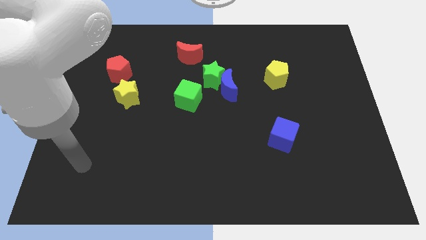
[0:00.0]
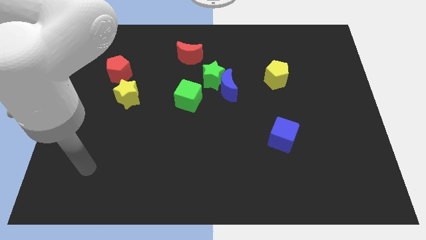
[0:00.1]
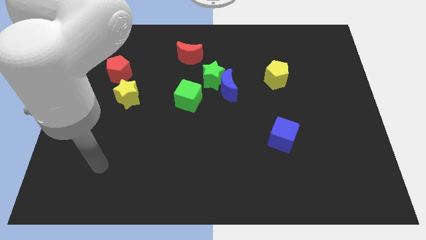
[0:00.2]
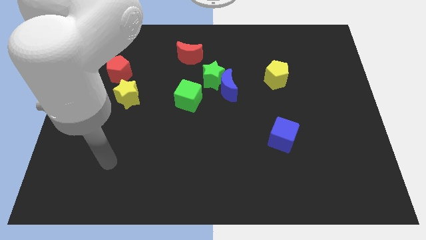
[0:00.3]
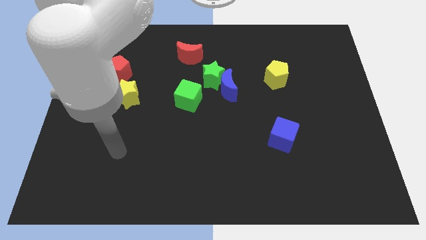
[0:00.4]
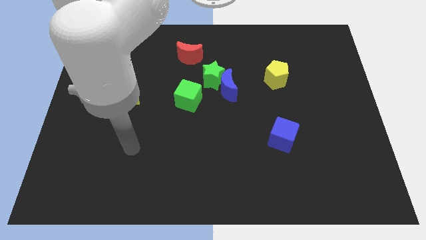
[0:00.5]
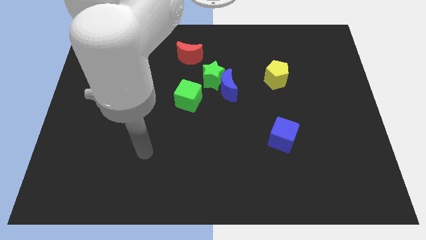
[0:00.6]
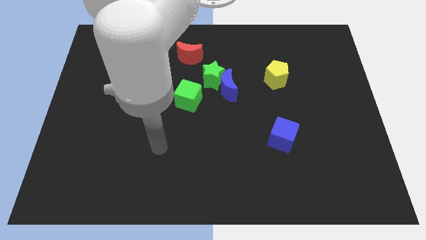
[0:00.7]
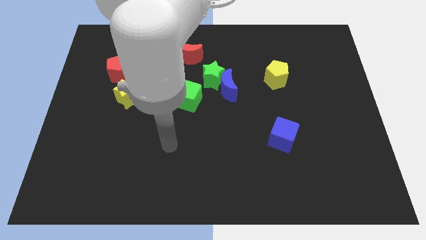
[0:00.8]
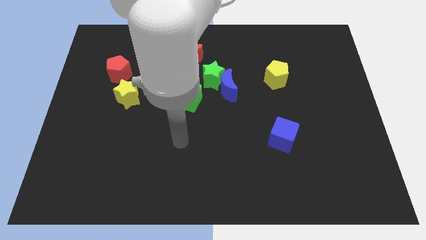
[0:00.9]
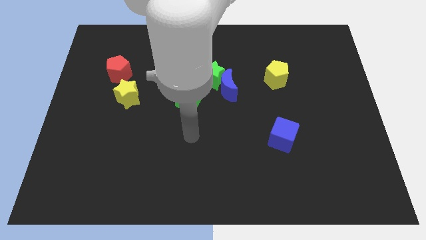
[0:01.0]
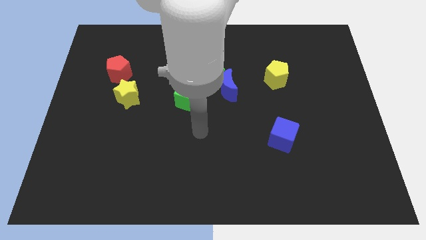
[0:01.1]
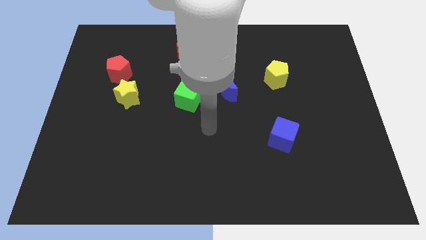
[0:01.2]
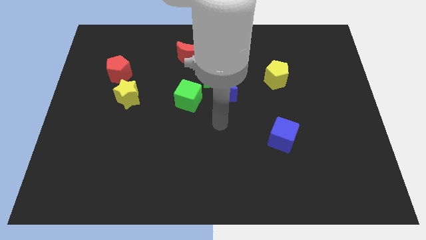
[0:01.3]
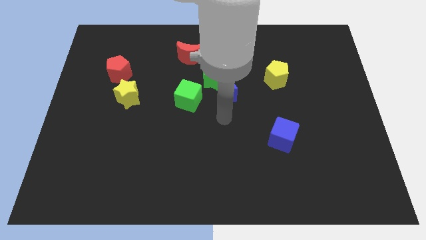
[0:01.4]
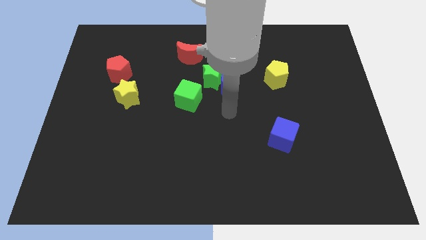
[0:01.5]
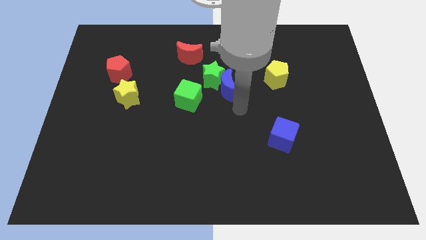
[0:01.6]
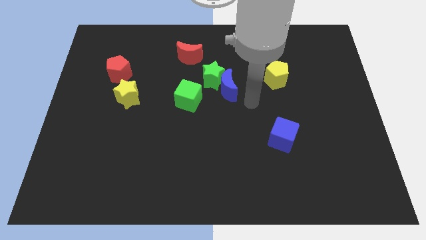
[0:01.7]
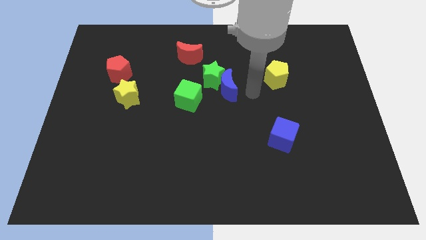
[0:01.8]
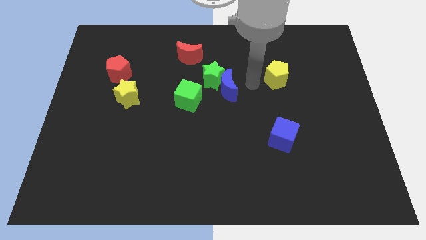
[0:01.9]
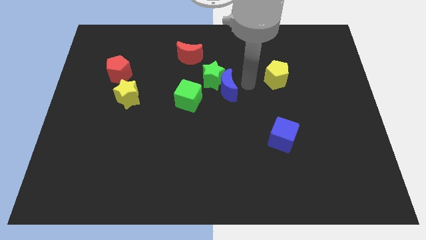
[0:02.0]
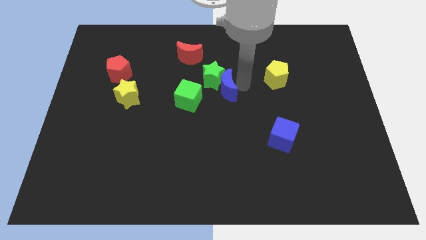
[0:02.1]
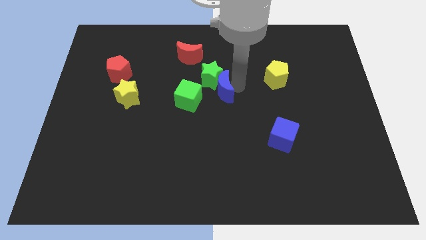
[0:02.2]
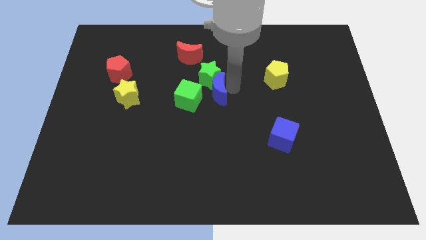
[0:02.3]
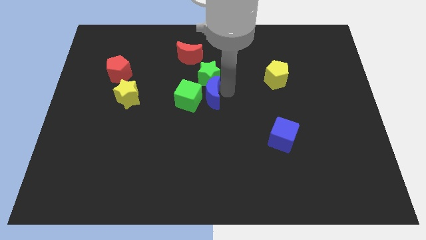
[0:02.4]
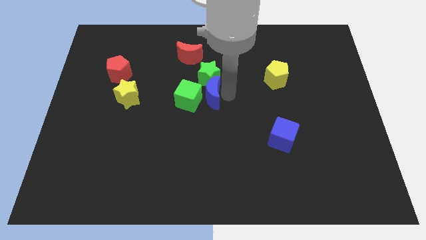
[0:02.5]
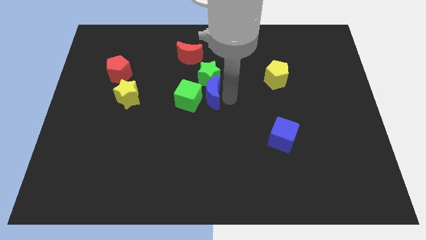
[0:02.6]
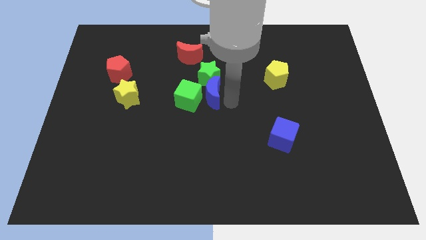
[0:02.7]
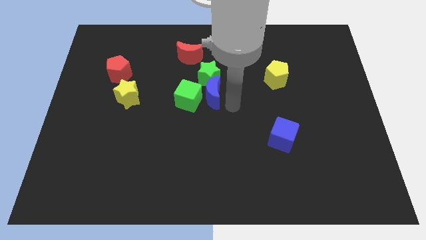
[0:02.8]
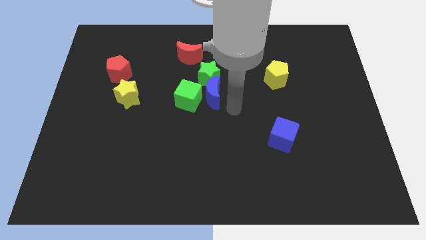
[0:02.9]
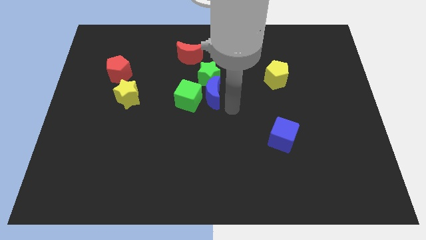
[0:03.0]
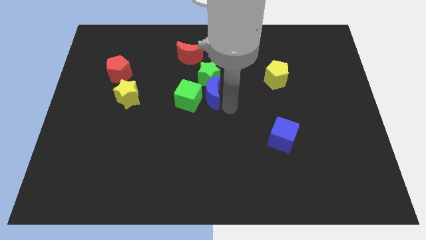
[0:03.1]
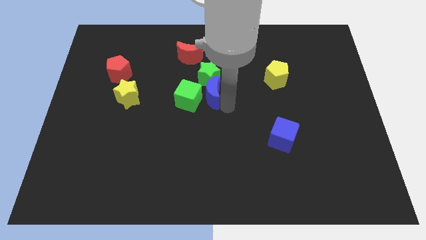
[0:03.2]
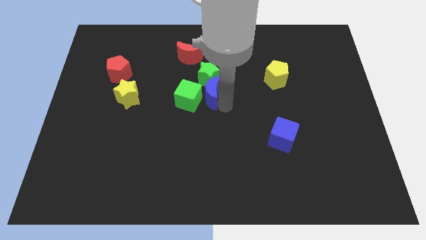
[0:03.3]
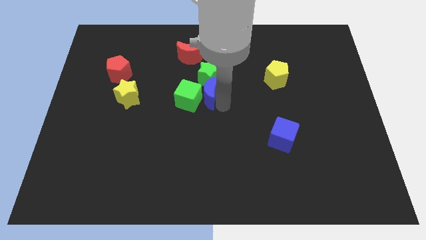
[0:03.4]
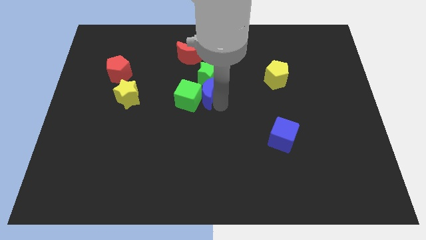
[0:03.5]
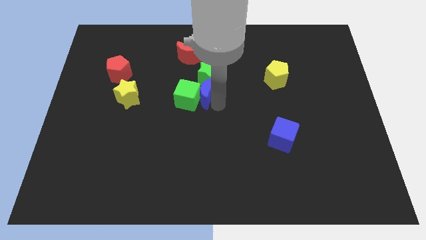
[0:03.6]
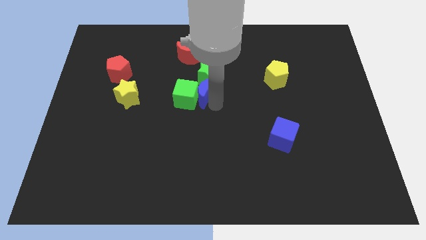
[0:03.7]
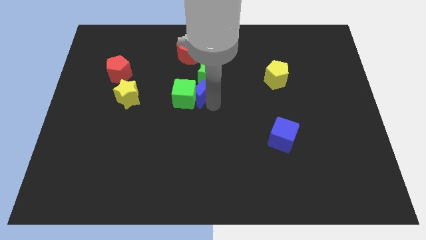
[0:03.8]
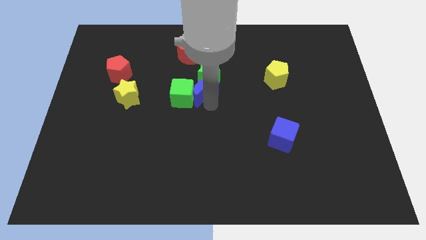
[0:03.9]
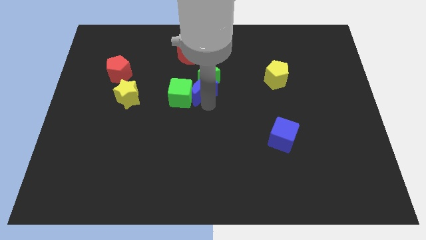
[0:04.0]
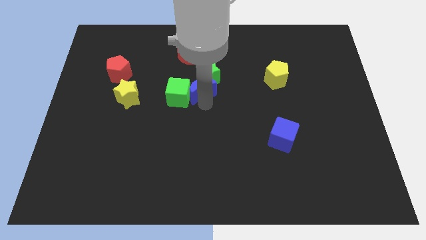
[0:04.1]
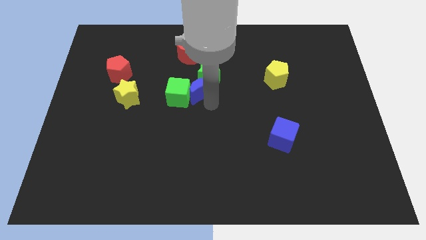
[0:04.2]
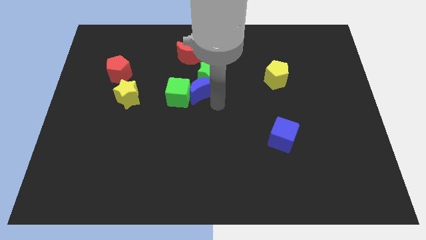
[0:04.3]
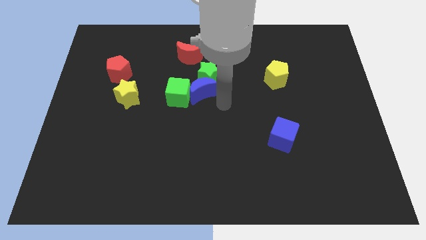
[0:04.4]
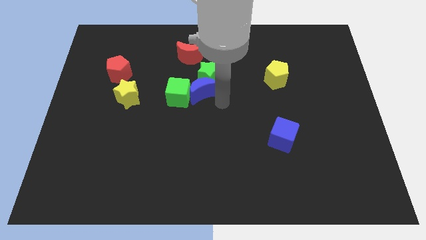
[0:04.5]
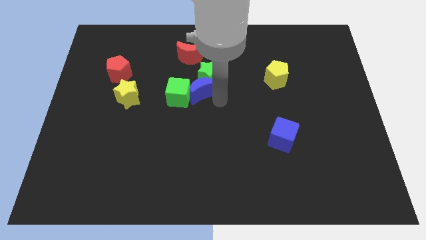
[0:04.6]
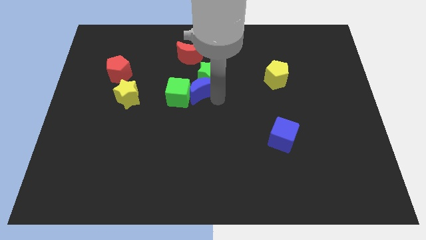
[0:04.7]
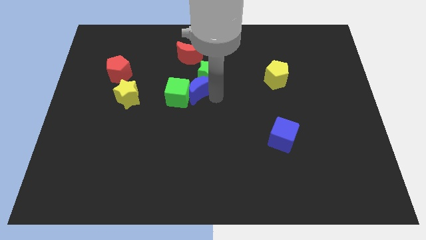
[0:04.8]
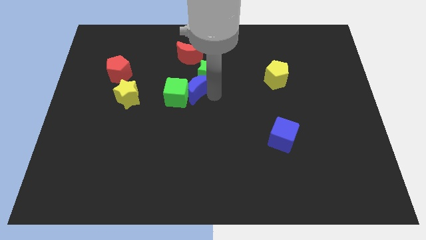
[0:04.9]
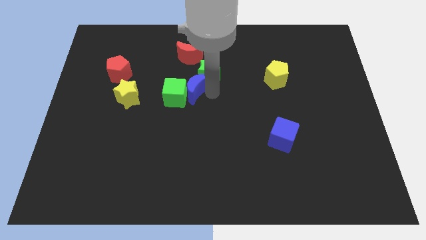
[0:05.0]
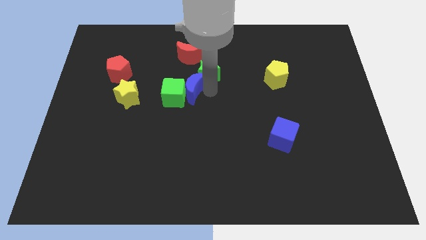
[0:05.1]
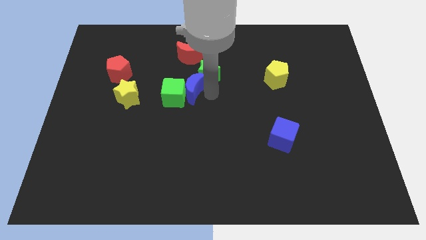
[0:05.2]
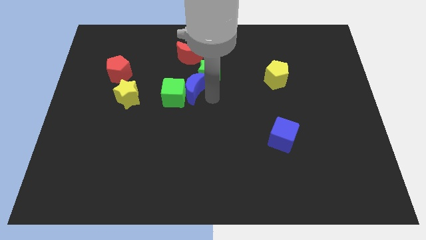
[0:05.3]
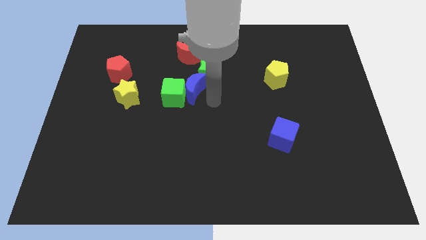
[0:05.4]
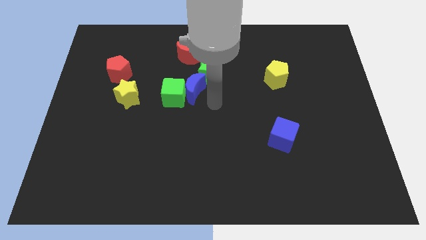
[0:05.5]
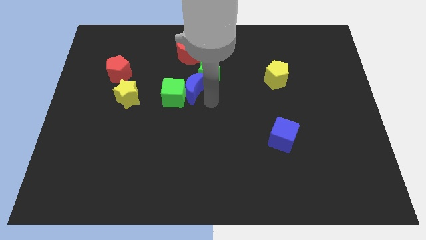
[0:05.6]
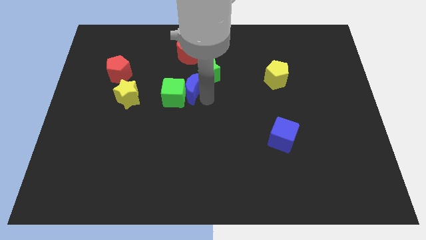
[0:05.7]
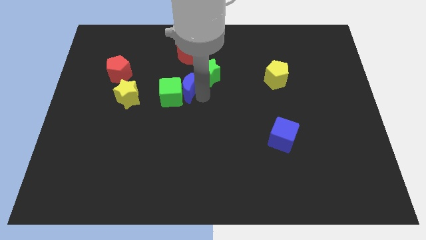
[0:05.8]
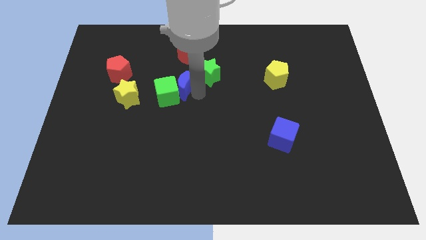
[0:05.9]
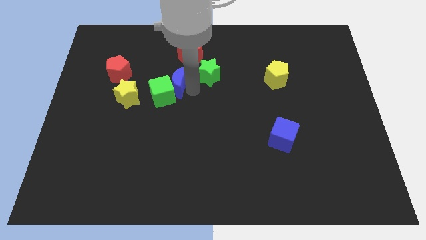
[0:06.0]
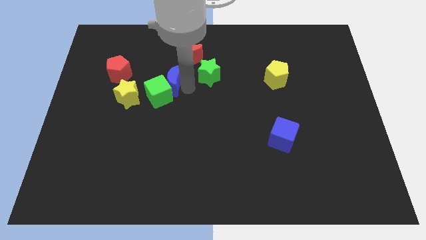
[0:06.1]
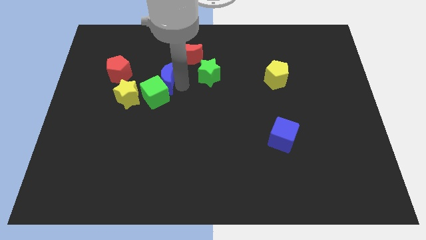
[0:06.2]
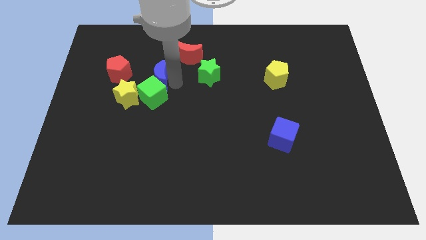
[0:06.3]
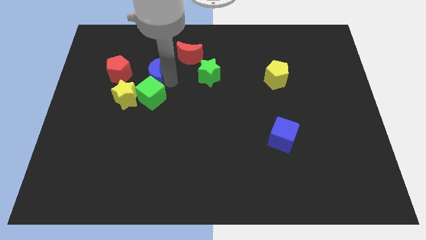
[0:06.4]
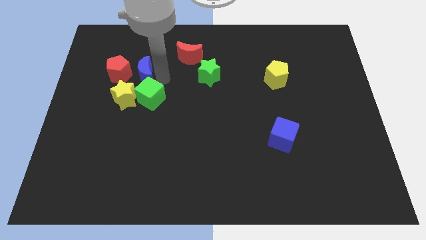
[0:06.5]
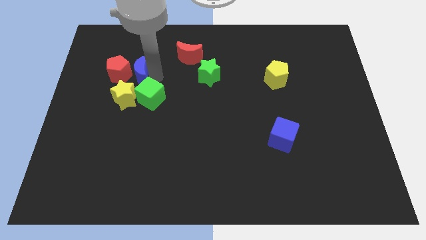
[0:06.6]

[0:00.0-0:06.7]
put the blue moon to the red pentagon

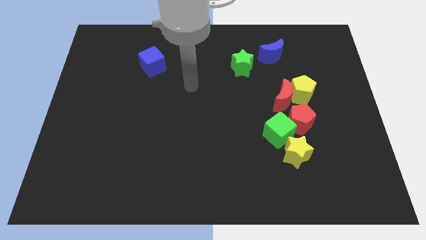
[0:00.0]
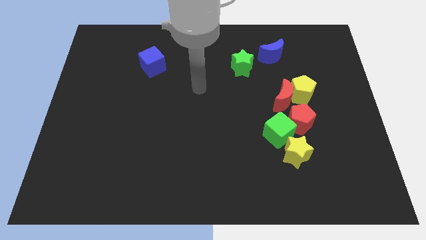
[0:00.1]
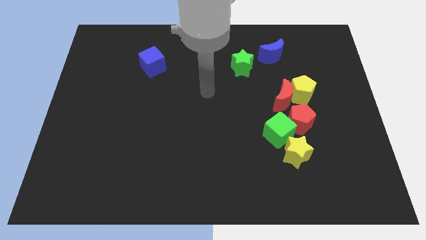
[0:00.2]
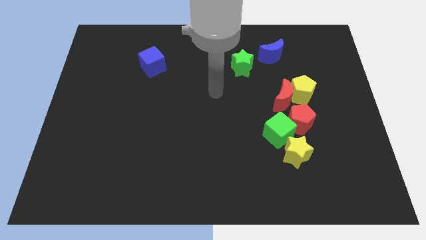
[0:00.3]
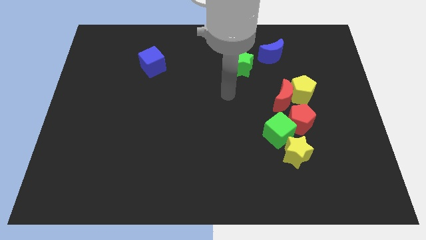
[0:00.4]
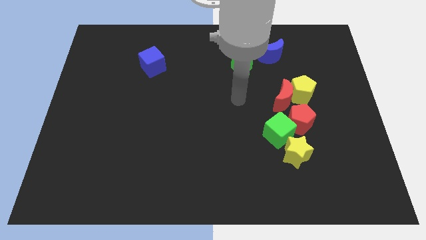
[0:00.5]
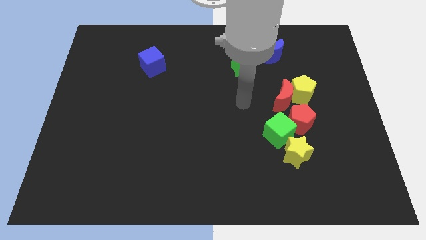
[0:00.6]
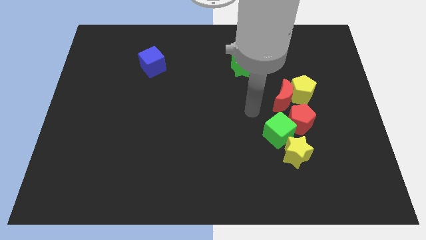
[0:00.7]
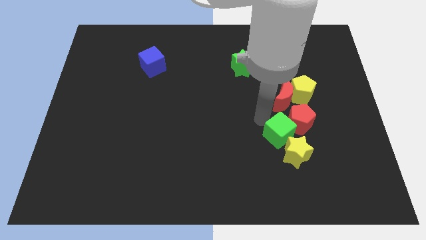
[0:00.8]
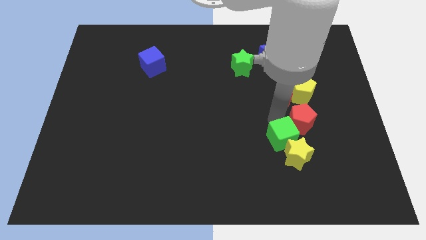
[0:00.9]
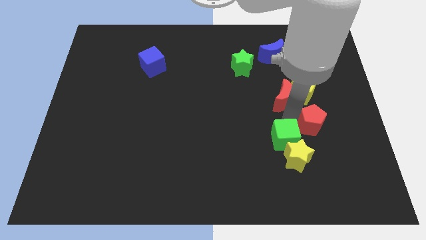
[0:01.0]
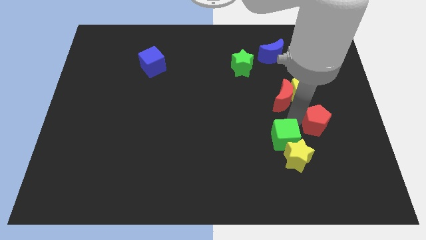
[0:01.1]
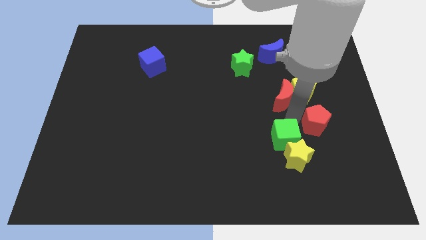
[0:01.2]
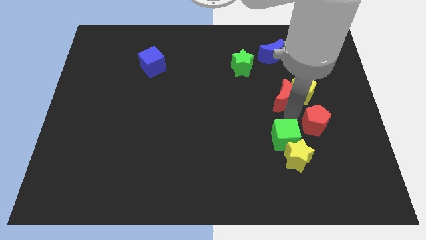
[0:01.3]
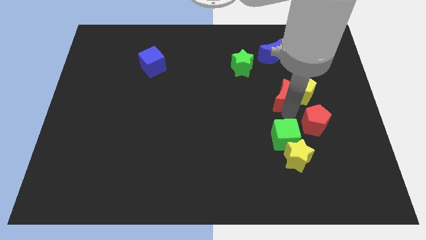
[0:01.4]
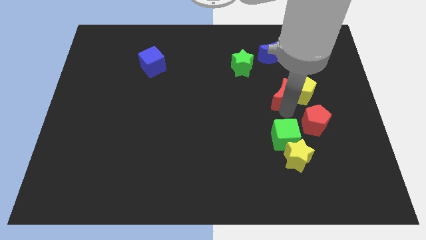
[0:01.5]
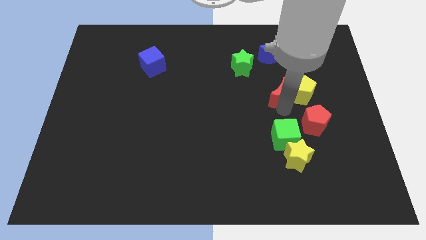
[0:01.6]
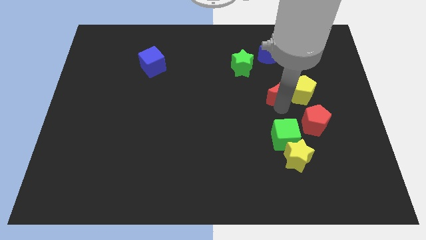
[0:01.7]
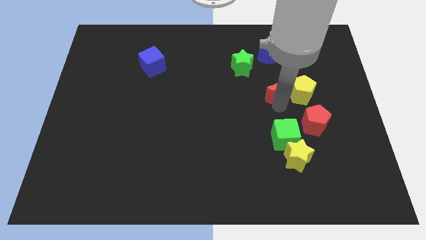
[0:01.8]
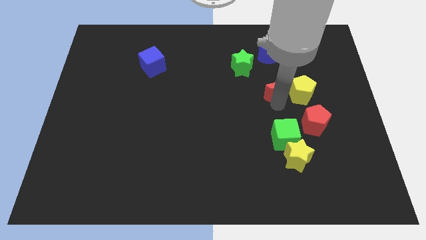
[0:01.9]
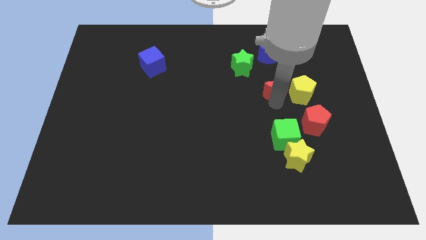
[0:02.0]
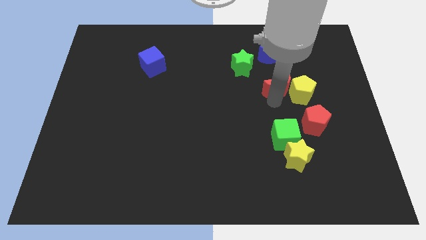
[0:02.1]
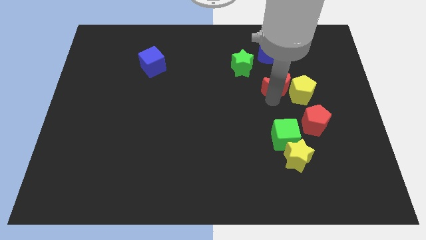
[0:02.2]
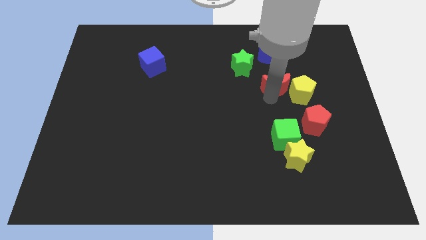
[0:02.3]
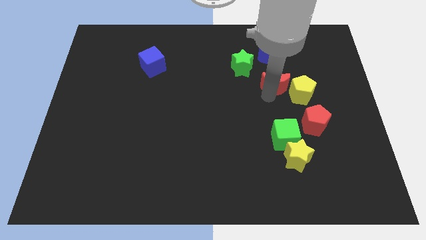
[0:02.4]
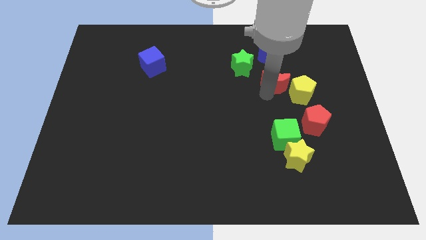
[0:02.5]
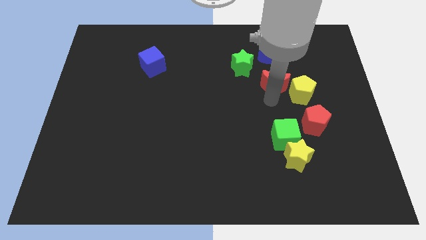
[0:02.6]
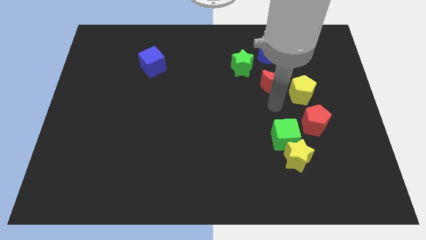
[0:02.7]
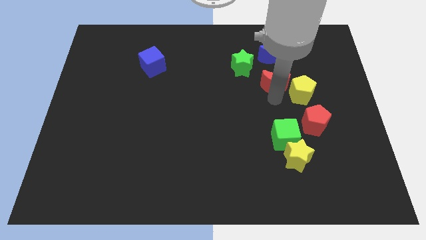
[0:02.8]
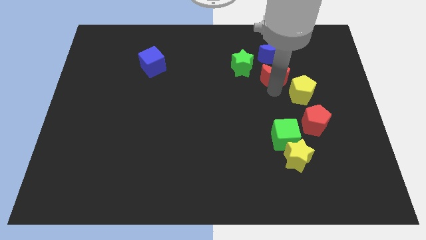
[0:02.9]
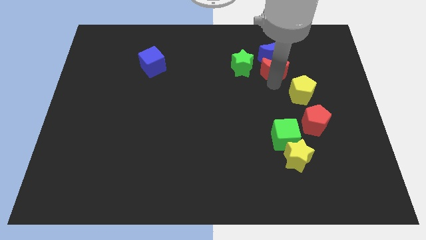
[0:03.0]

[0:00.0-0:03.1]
move the red moon close to the blue moon
